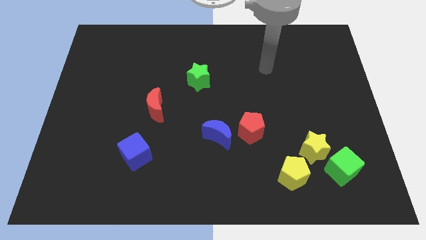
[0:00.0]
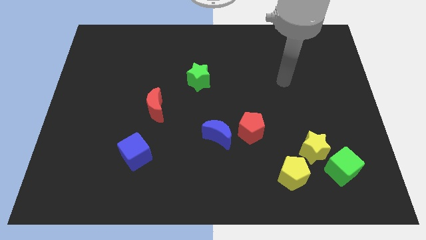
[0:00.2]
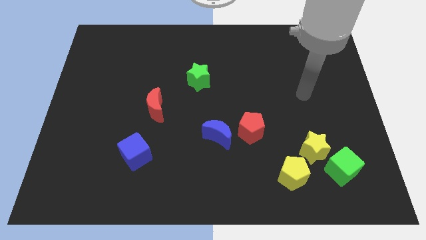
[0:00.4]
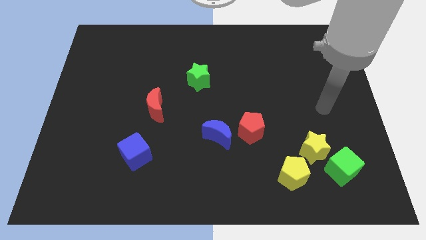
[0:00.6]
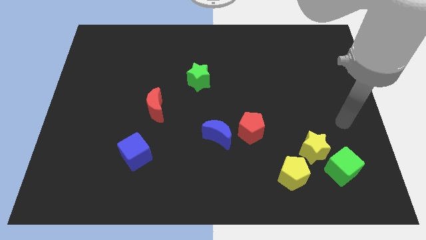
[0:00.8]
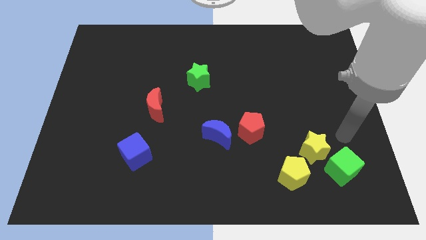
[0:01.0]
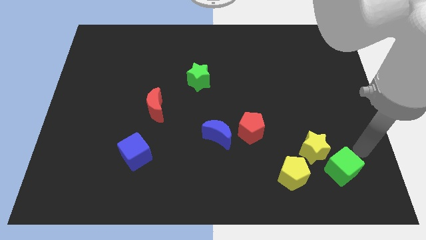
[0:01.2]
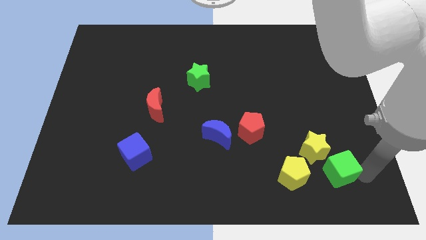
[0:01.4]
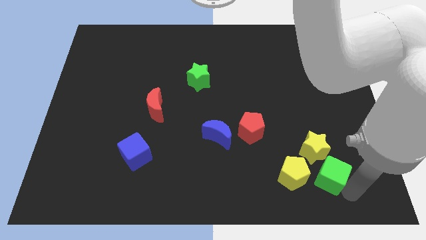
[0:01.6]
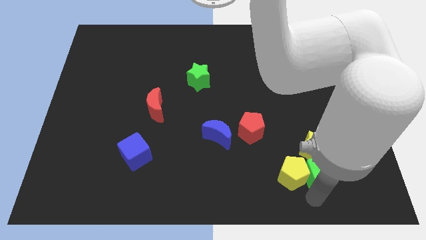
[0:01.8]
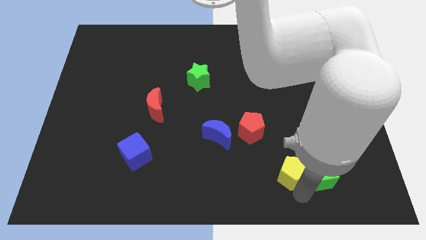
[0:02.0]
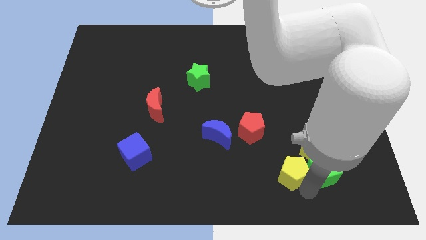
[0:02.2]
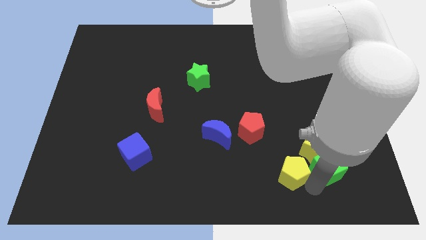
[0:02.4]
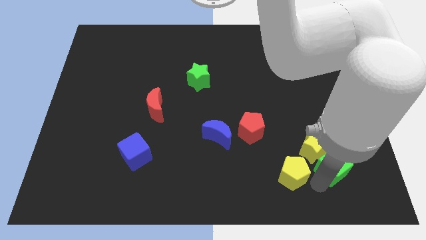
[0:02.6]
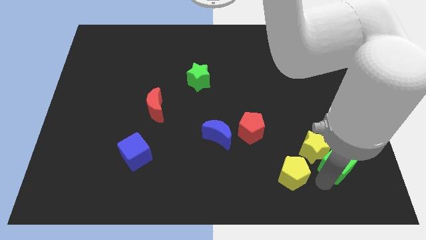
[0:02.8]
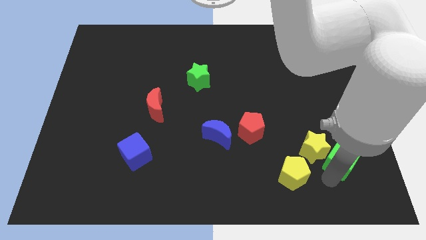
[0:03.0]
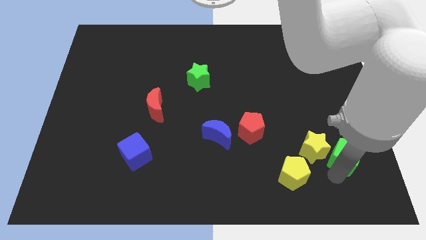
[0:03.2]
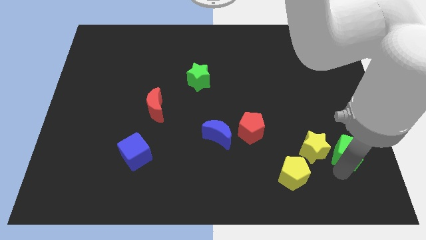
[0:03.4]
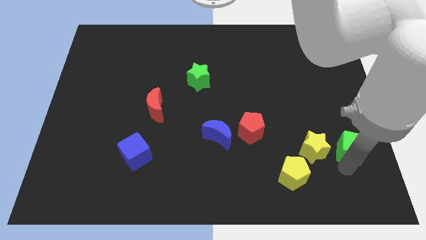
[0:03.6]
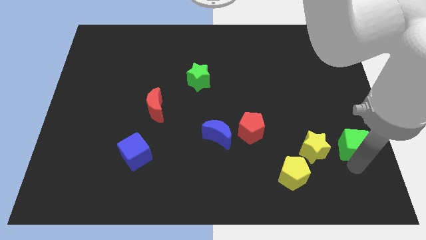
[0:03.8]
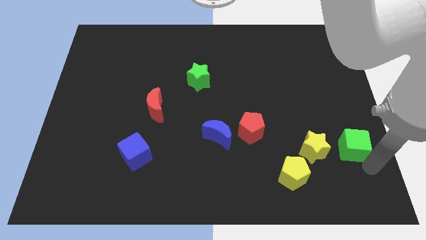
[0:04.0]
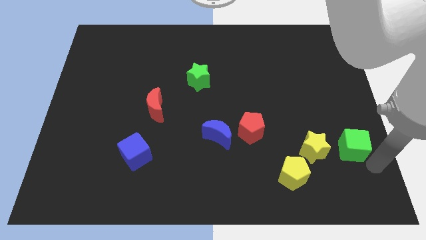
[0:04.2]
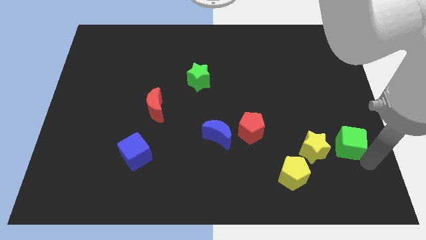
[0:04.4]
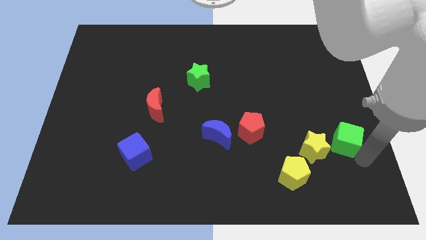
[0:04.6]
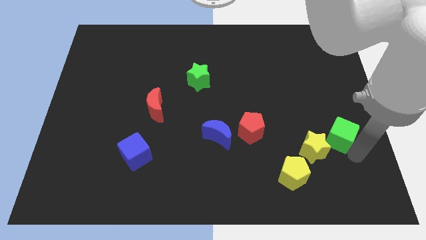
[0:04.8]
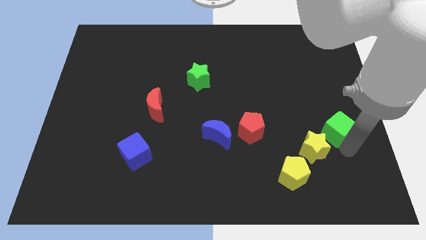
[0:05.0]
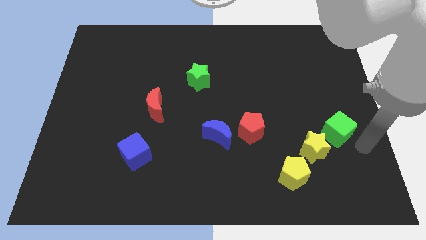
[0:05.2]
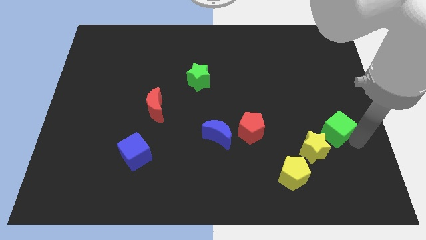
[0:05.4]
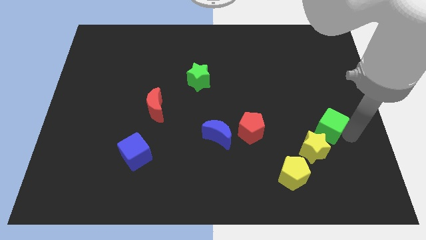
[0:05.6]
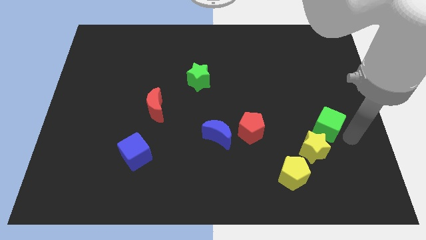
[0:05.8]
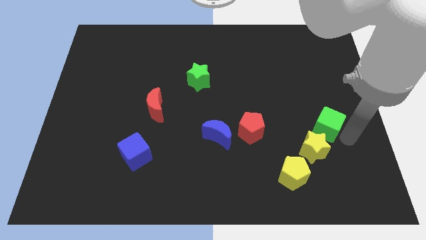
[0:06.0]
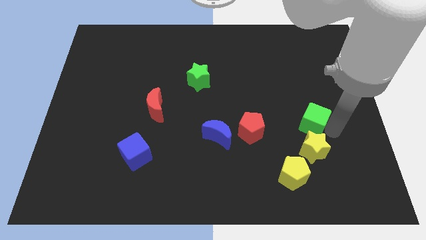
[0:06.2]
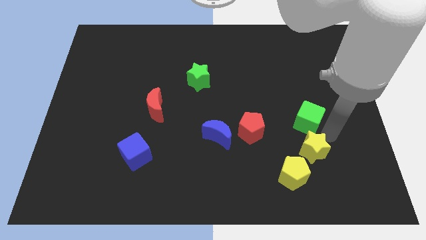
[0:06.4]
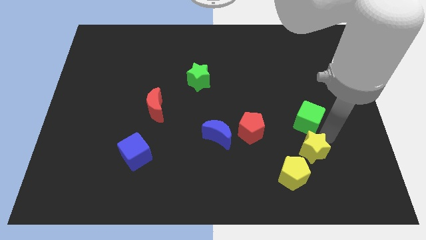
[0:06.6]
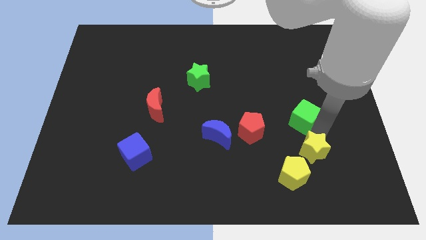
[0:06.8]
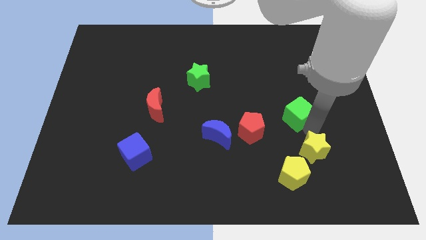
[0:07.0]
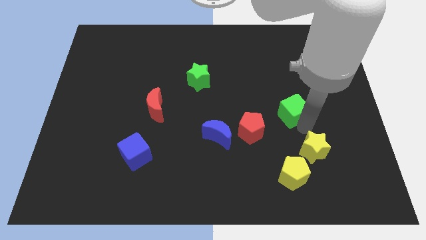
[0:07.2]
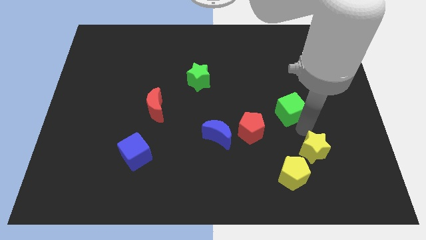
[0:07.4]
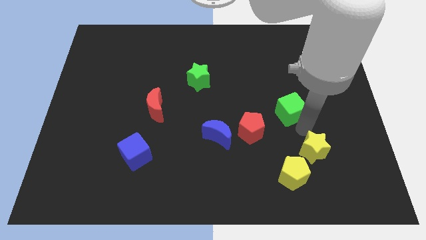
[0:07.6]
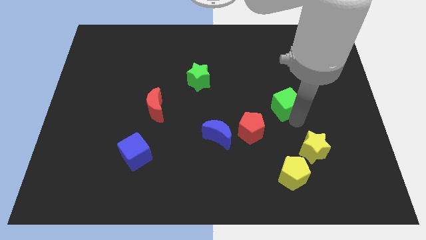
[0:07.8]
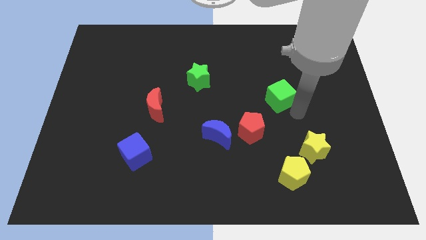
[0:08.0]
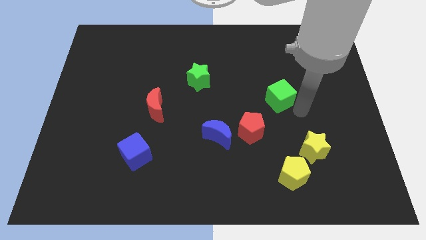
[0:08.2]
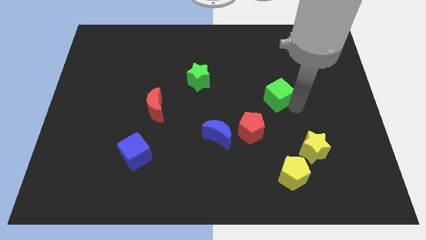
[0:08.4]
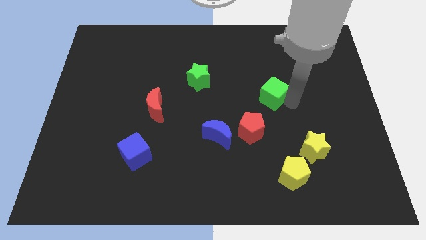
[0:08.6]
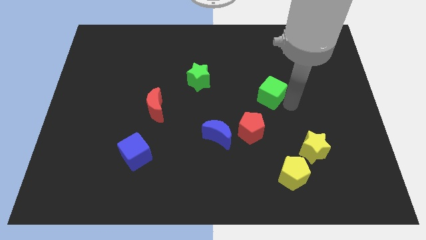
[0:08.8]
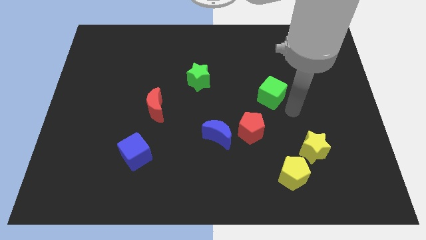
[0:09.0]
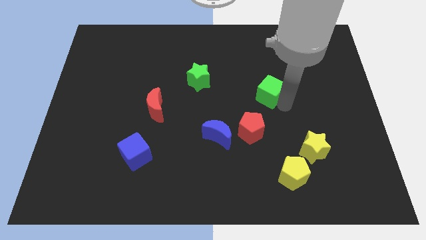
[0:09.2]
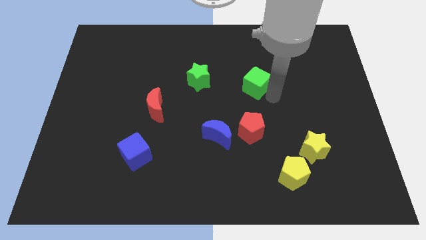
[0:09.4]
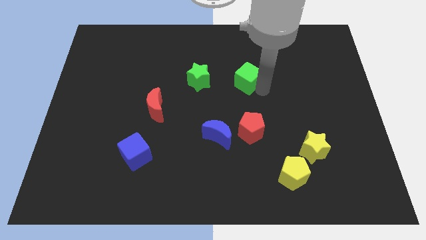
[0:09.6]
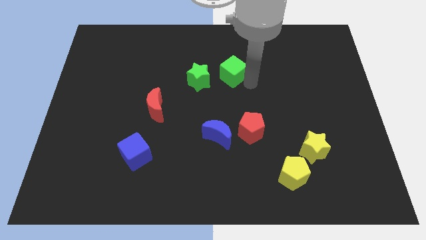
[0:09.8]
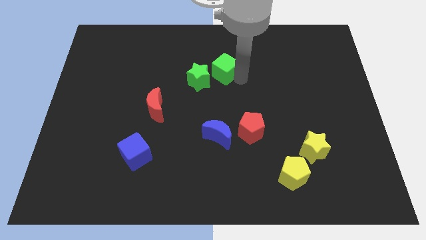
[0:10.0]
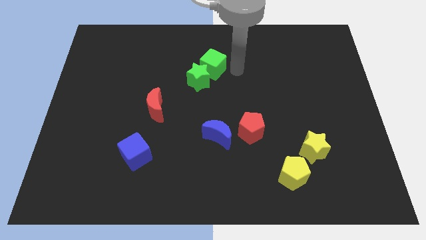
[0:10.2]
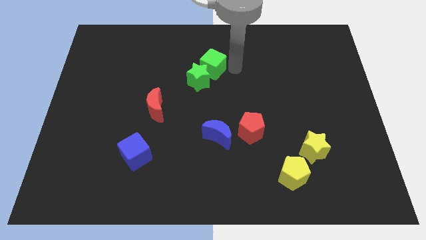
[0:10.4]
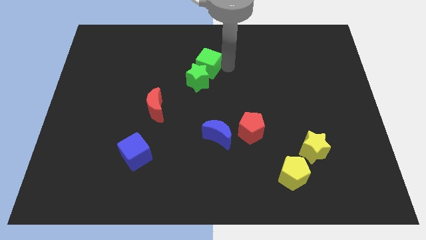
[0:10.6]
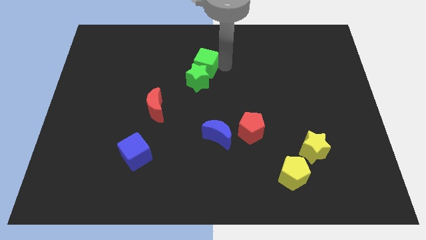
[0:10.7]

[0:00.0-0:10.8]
put the green cube diagonally up and to the left of the green star

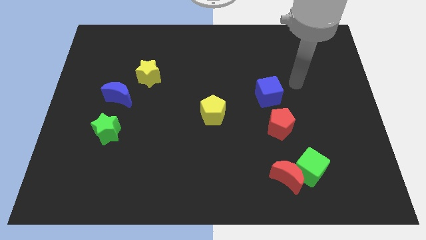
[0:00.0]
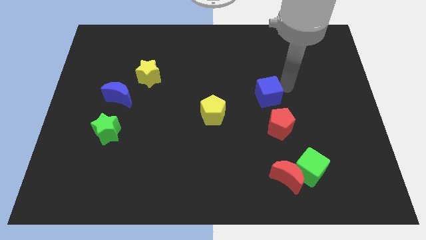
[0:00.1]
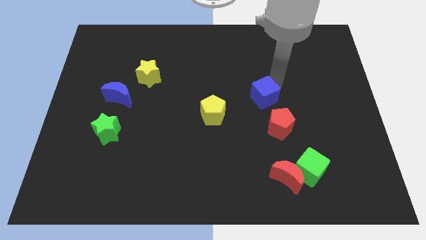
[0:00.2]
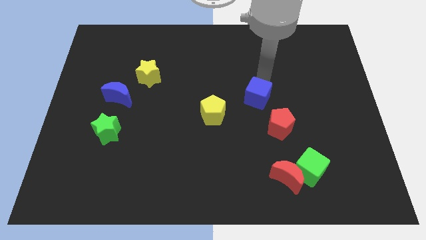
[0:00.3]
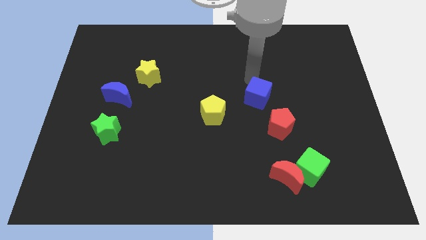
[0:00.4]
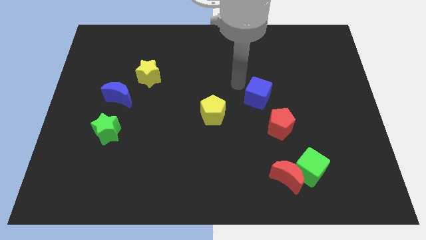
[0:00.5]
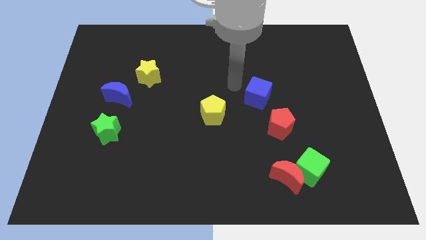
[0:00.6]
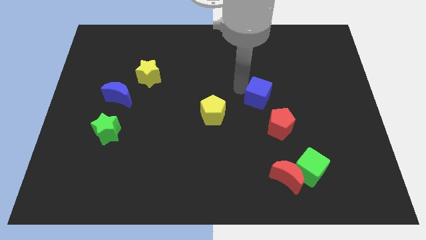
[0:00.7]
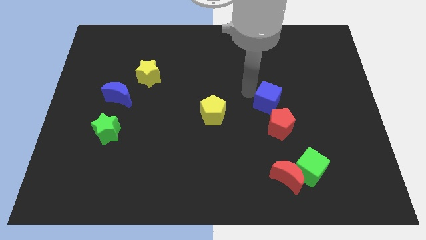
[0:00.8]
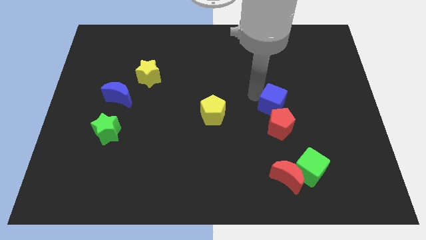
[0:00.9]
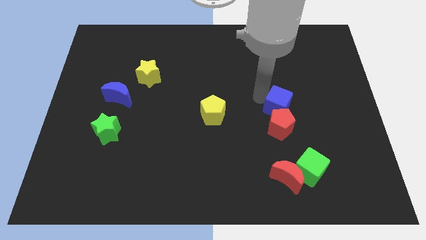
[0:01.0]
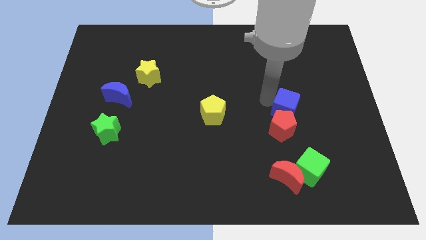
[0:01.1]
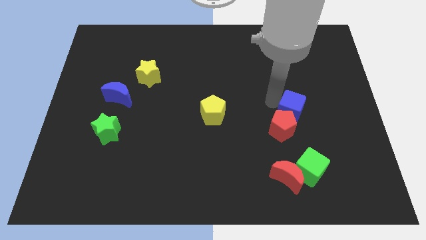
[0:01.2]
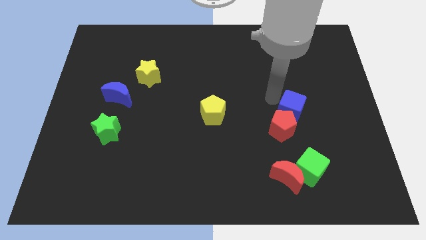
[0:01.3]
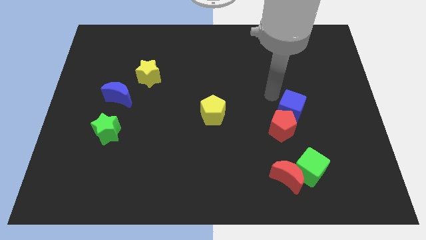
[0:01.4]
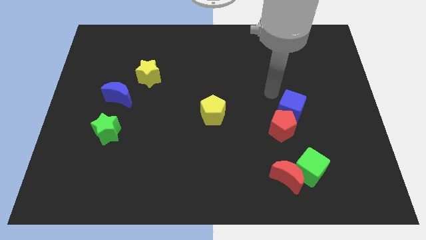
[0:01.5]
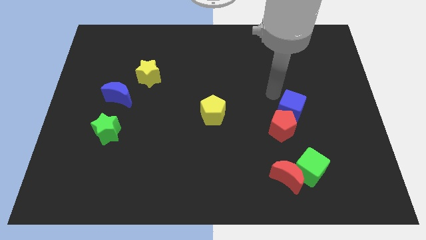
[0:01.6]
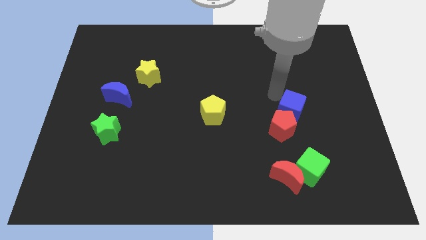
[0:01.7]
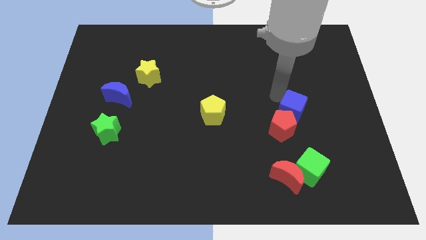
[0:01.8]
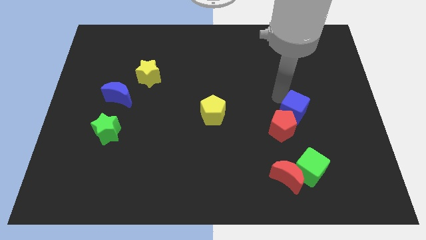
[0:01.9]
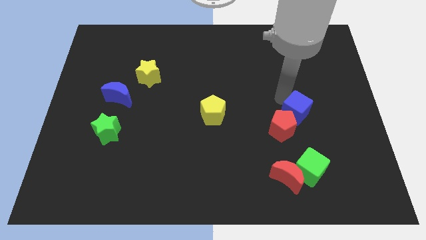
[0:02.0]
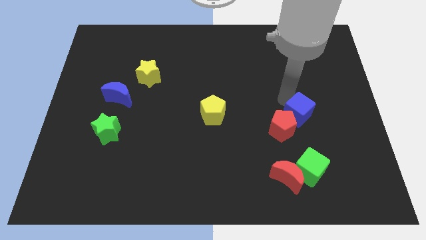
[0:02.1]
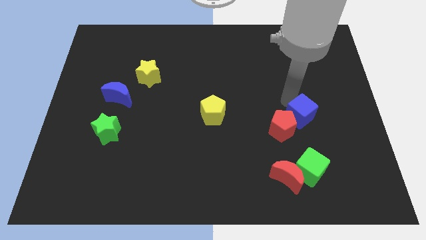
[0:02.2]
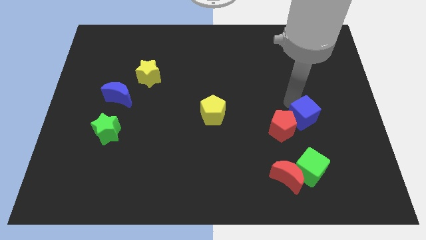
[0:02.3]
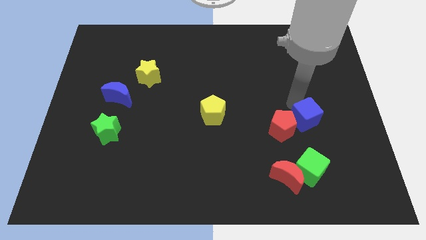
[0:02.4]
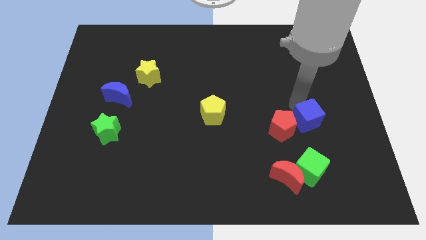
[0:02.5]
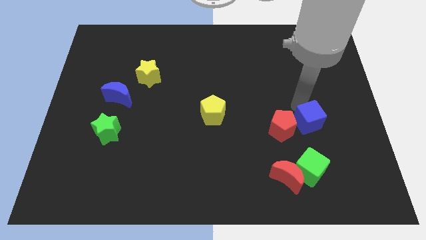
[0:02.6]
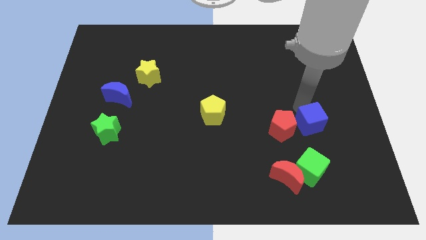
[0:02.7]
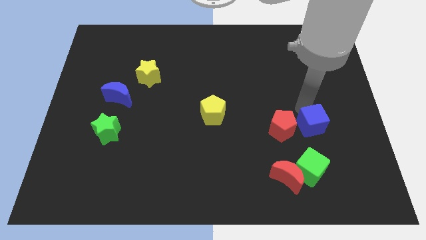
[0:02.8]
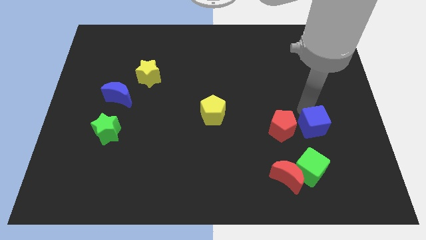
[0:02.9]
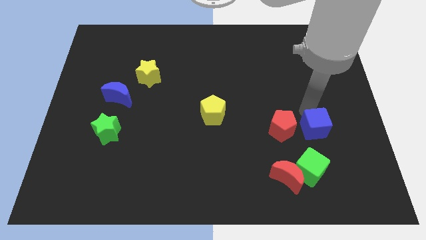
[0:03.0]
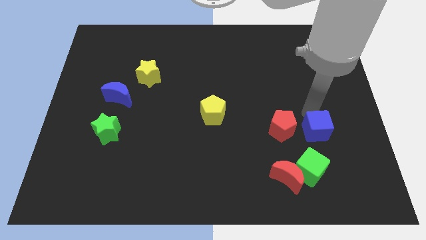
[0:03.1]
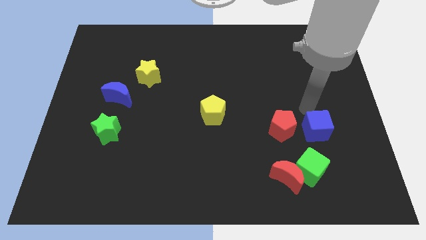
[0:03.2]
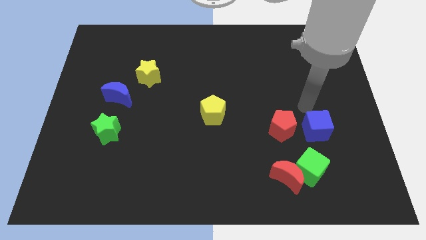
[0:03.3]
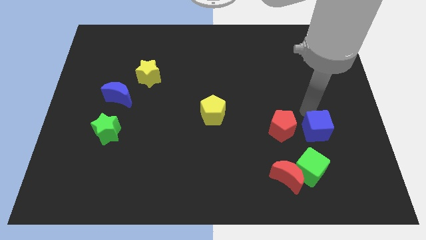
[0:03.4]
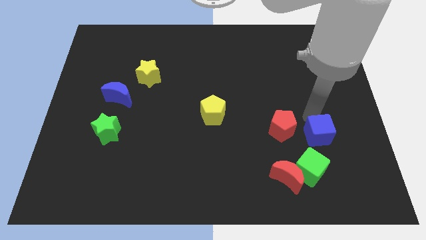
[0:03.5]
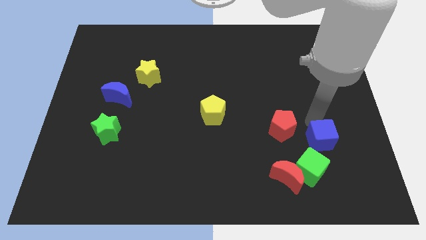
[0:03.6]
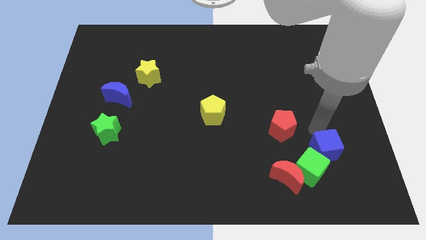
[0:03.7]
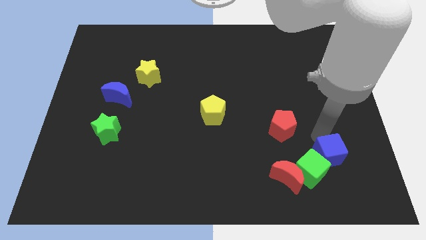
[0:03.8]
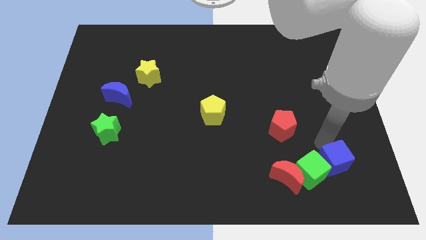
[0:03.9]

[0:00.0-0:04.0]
put the blue cube right of the red moon
